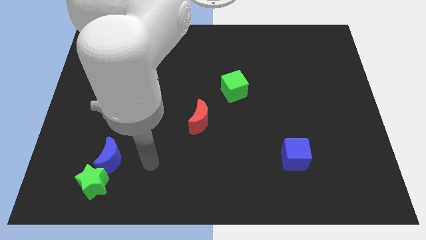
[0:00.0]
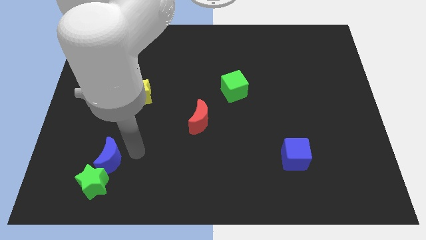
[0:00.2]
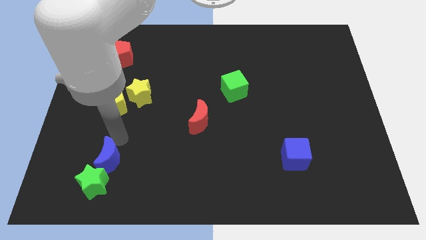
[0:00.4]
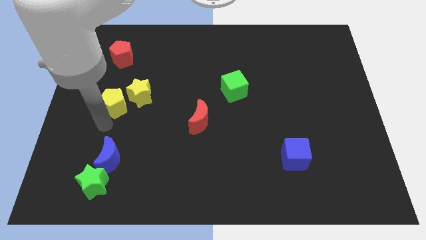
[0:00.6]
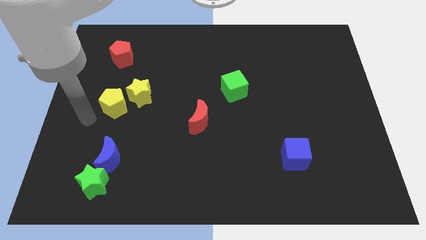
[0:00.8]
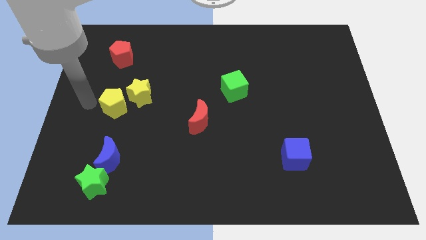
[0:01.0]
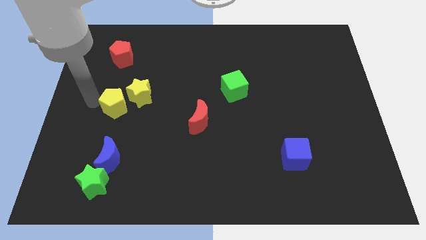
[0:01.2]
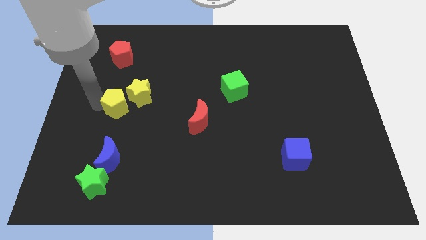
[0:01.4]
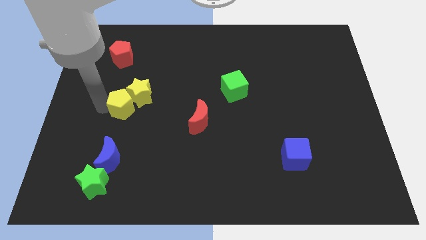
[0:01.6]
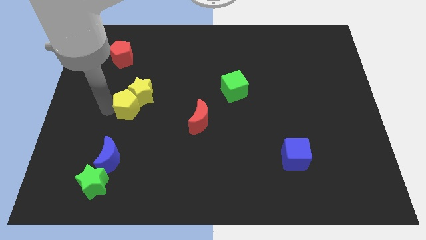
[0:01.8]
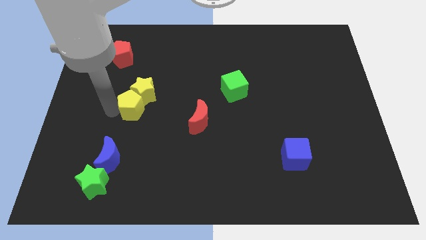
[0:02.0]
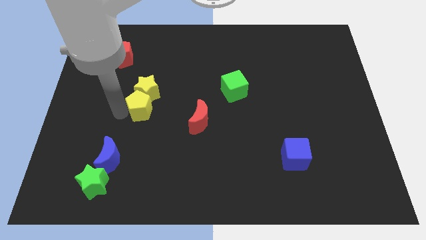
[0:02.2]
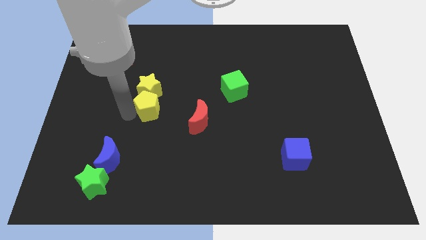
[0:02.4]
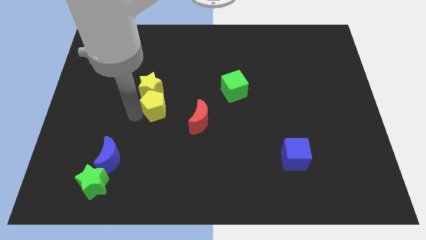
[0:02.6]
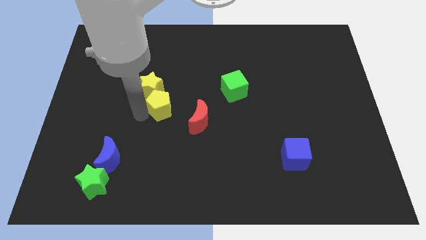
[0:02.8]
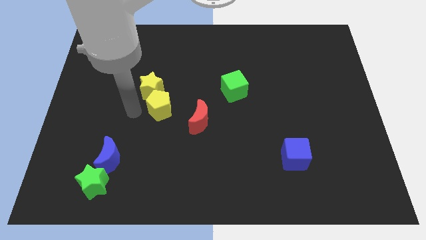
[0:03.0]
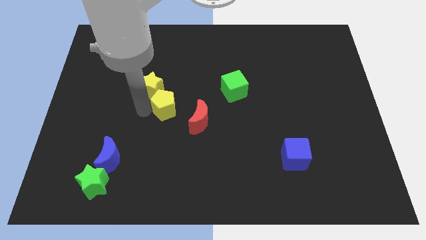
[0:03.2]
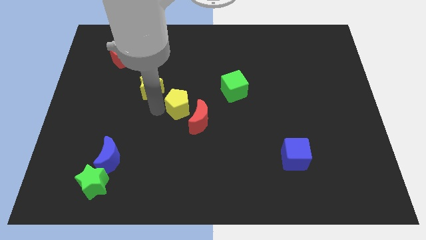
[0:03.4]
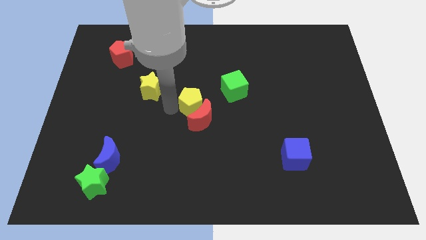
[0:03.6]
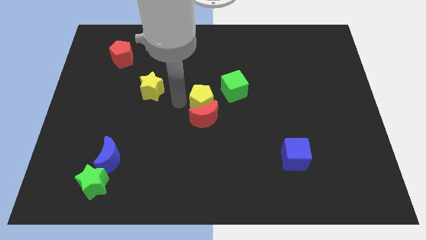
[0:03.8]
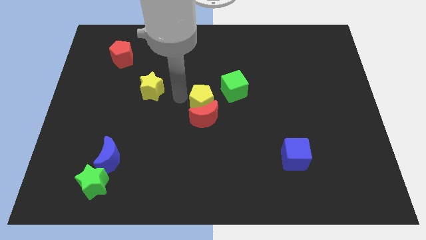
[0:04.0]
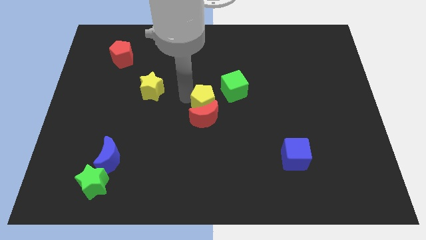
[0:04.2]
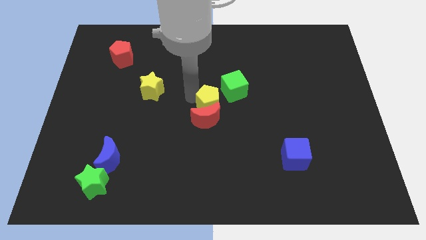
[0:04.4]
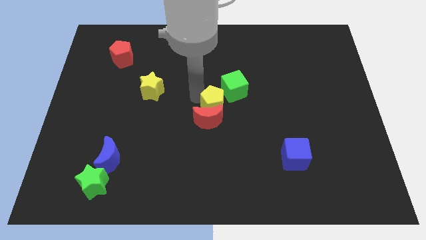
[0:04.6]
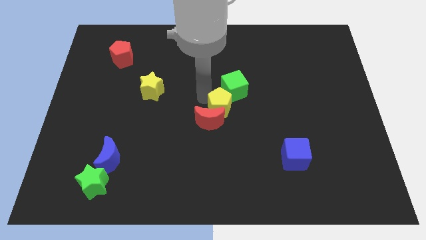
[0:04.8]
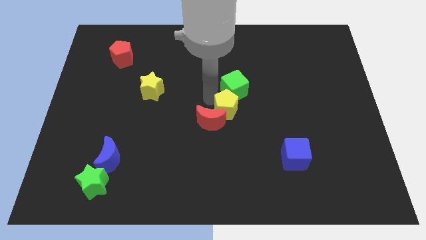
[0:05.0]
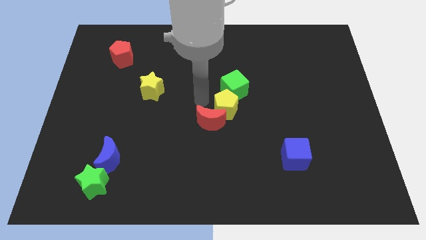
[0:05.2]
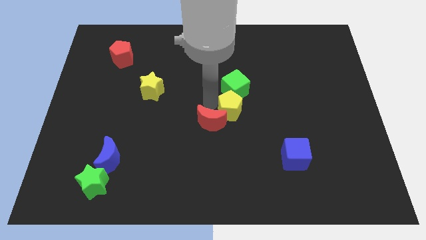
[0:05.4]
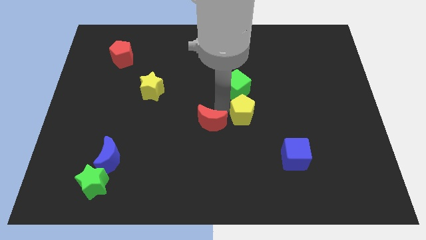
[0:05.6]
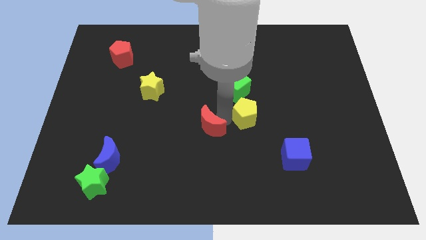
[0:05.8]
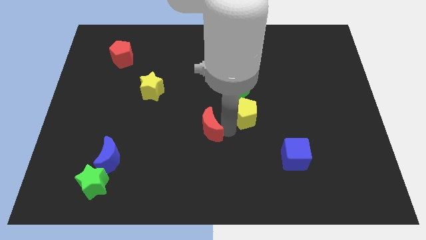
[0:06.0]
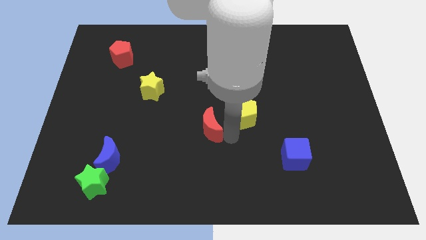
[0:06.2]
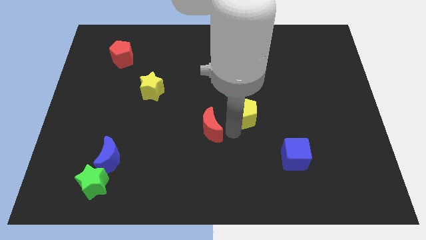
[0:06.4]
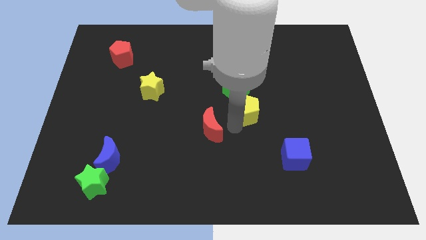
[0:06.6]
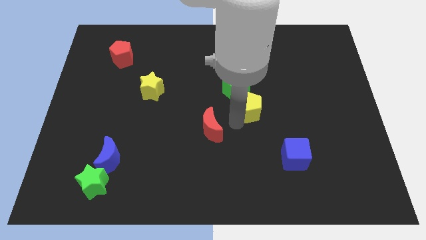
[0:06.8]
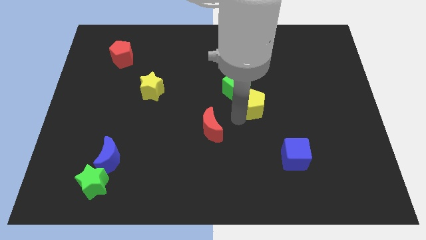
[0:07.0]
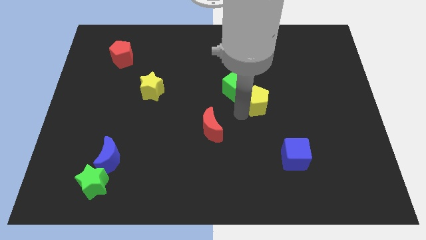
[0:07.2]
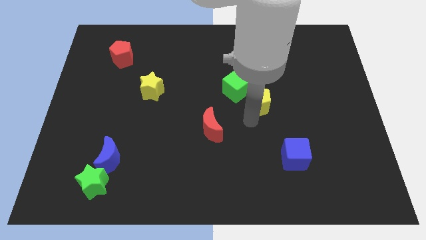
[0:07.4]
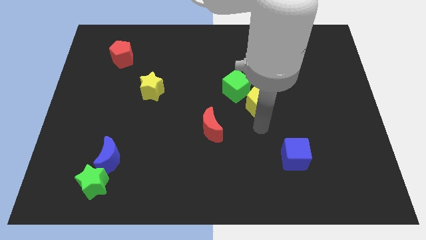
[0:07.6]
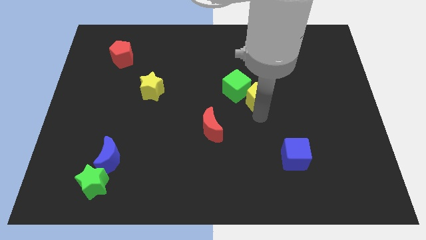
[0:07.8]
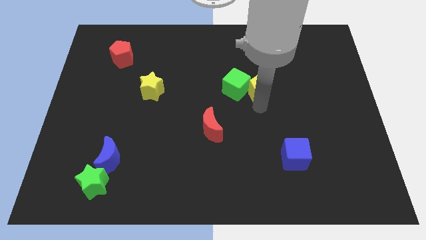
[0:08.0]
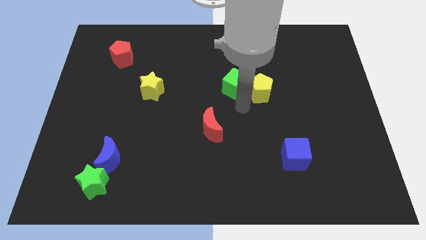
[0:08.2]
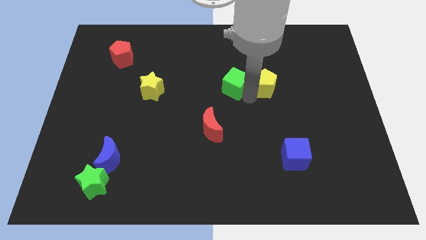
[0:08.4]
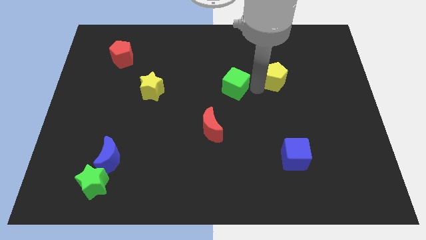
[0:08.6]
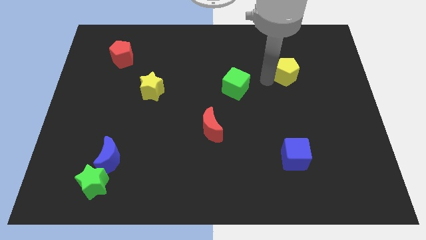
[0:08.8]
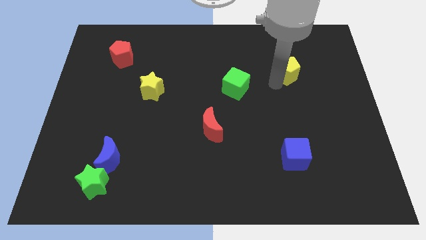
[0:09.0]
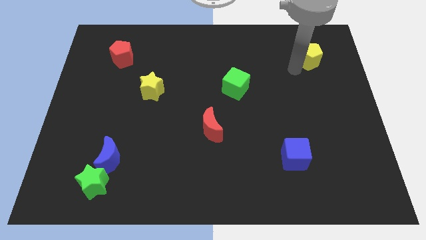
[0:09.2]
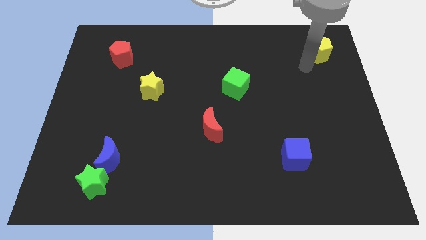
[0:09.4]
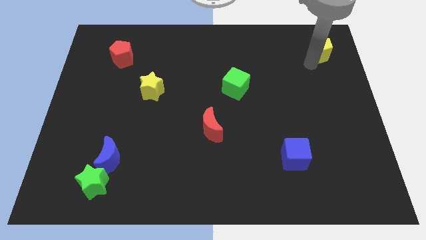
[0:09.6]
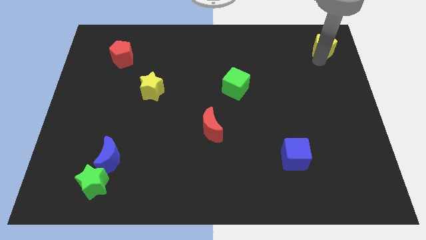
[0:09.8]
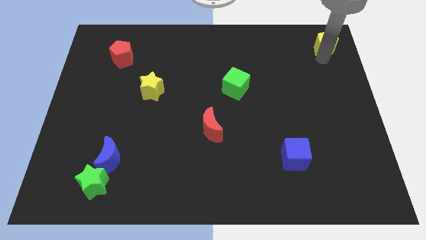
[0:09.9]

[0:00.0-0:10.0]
put the yellow pentagon to the top right of the board

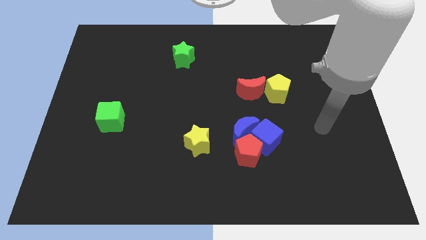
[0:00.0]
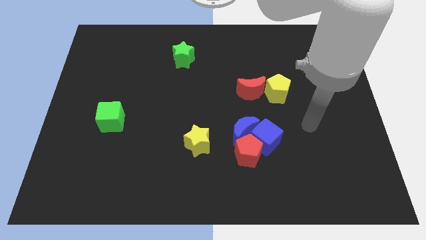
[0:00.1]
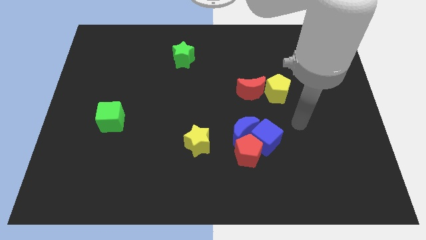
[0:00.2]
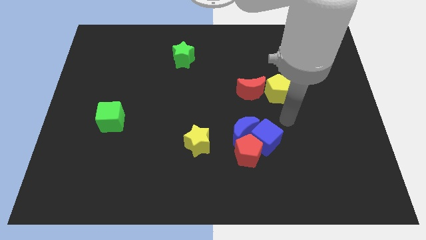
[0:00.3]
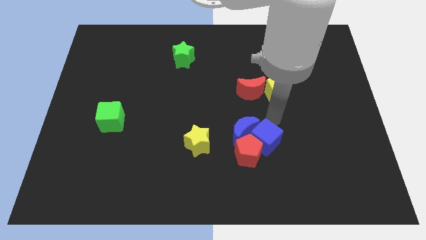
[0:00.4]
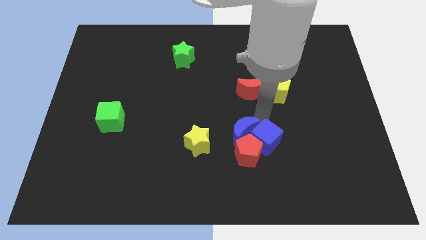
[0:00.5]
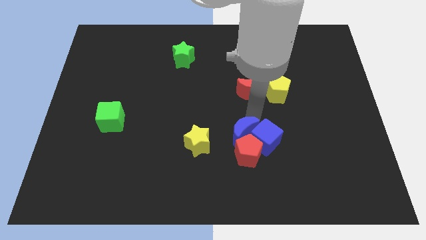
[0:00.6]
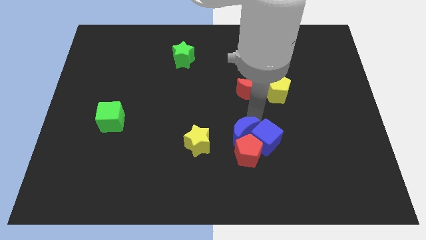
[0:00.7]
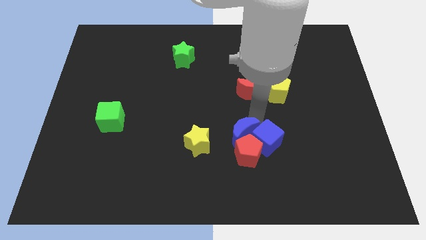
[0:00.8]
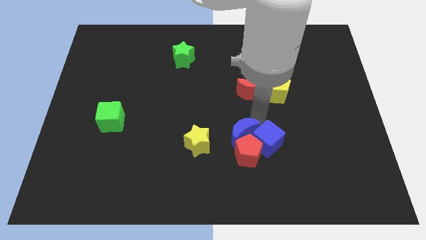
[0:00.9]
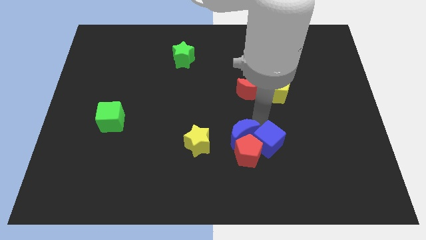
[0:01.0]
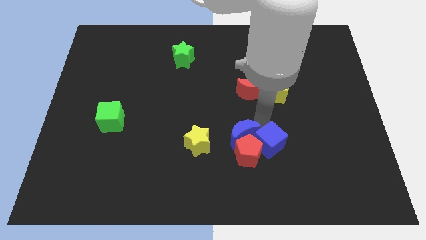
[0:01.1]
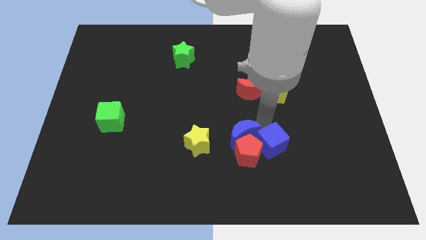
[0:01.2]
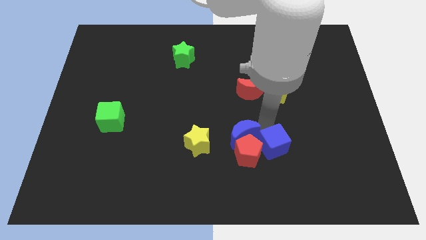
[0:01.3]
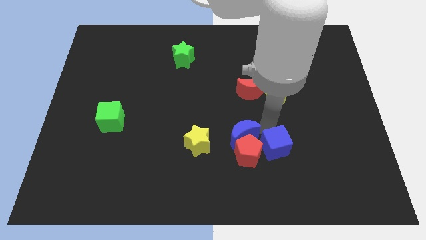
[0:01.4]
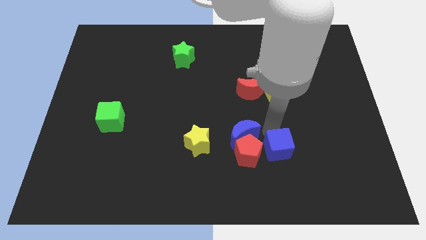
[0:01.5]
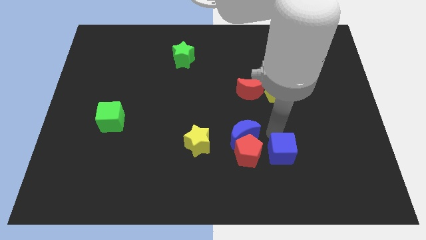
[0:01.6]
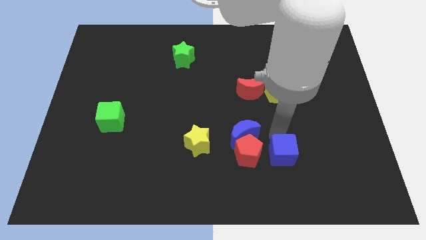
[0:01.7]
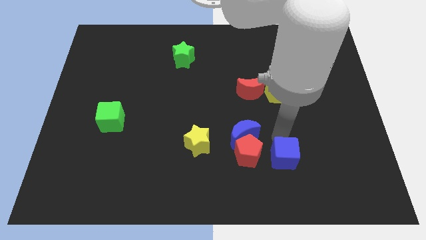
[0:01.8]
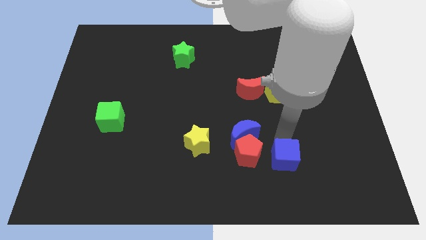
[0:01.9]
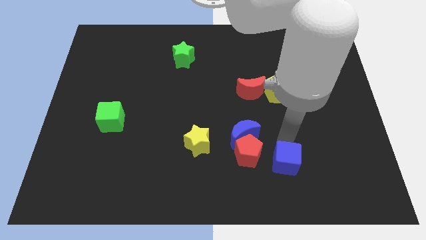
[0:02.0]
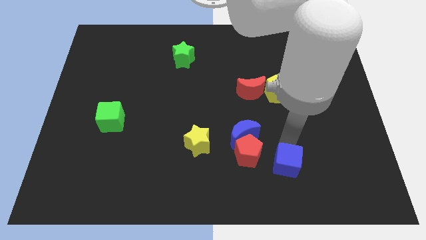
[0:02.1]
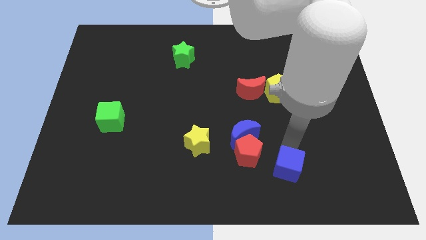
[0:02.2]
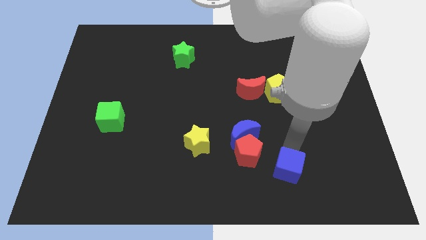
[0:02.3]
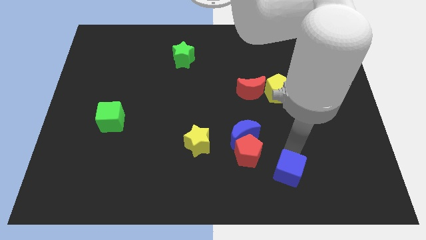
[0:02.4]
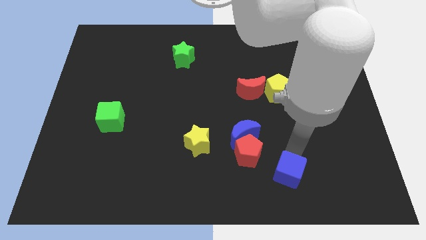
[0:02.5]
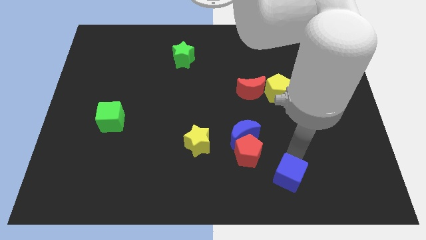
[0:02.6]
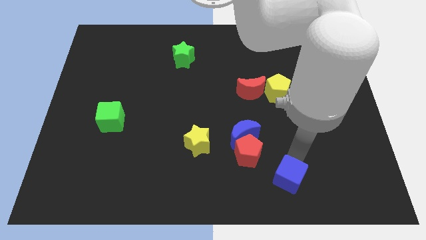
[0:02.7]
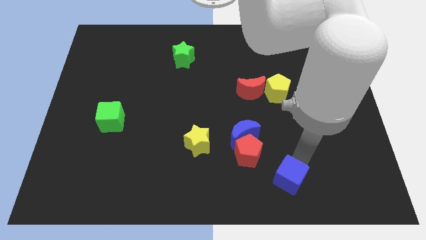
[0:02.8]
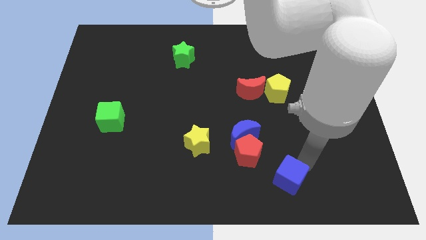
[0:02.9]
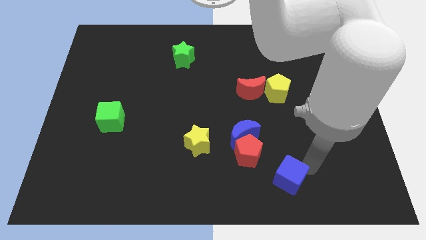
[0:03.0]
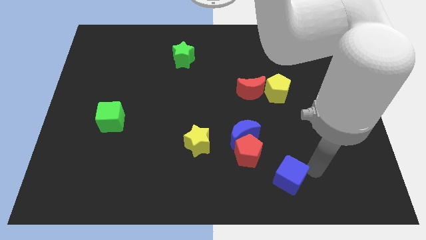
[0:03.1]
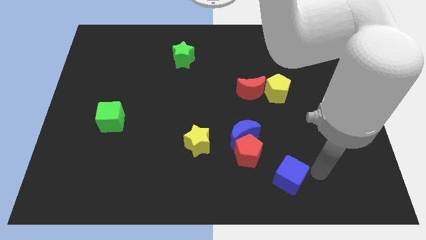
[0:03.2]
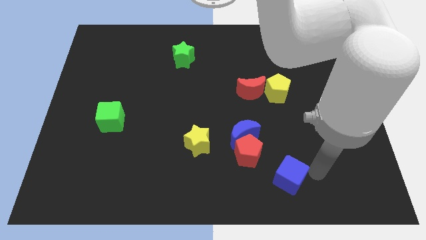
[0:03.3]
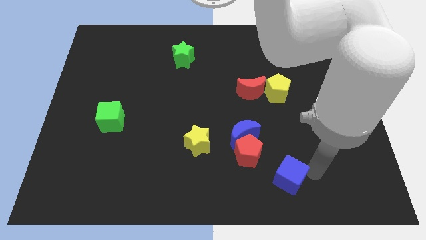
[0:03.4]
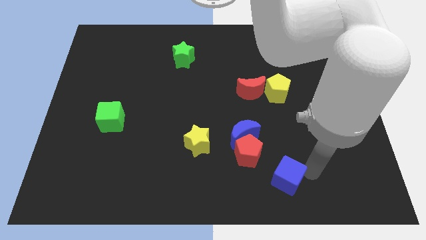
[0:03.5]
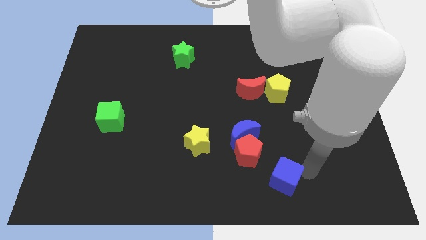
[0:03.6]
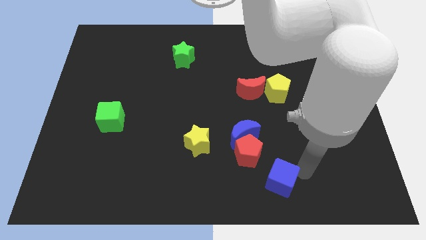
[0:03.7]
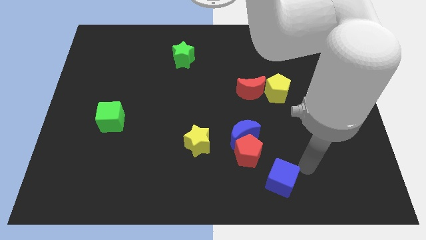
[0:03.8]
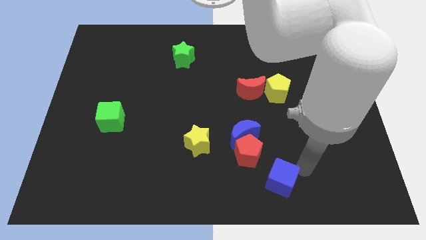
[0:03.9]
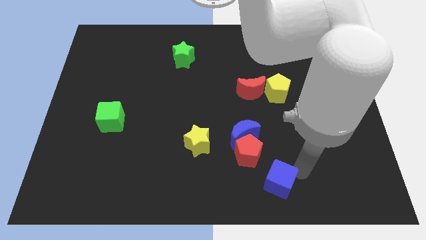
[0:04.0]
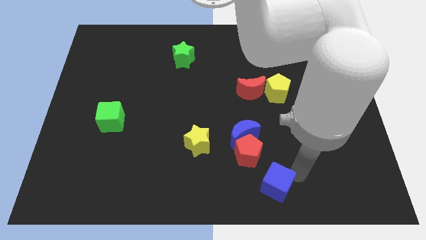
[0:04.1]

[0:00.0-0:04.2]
put the blue cube to the bottom side
